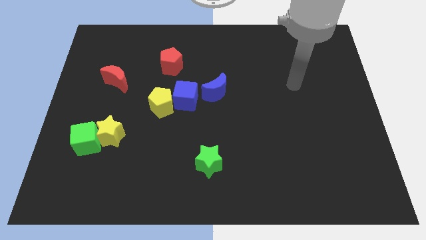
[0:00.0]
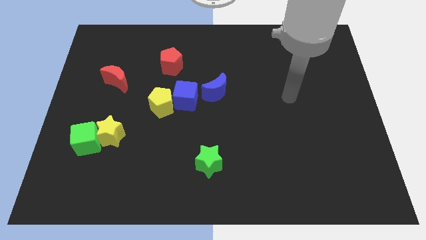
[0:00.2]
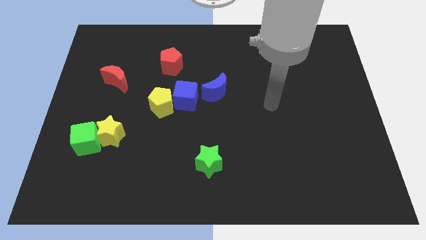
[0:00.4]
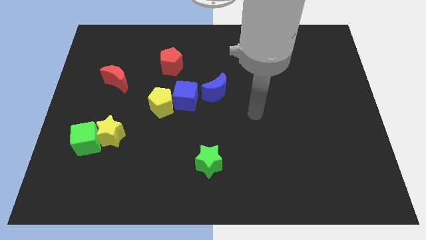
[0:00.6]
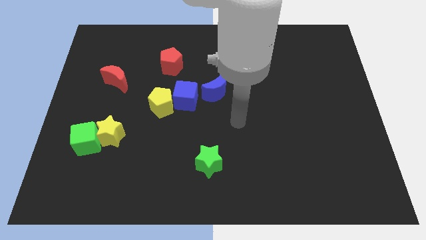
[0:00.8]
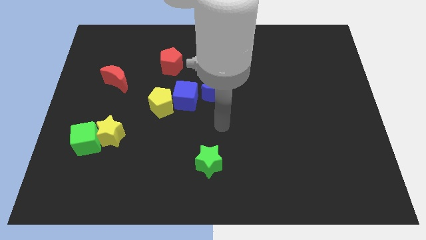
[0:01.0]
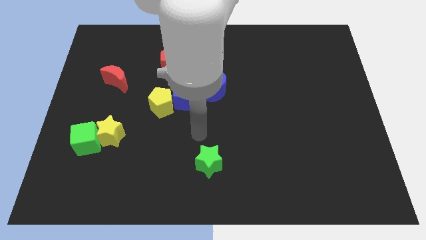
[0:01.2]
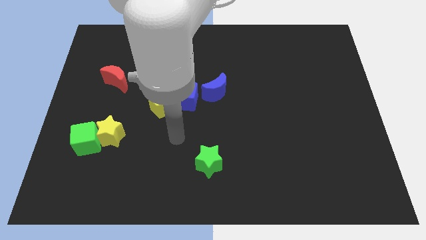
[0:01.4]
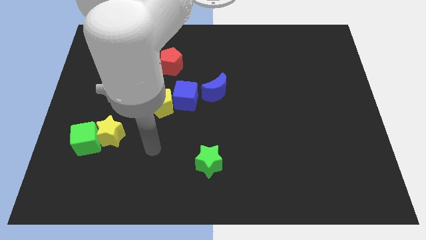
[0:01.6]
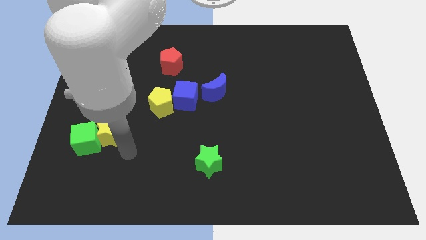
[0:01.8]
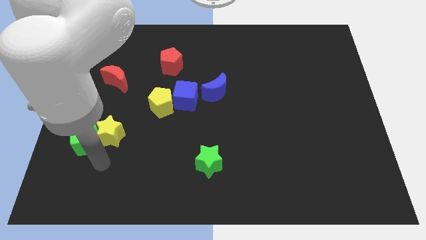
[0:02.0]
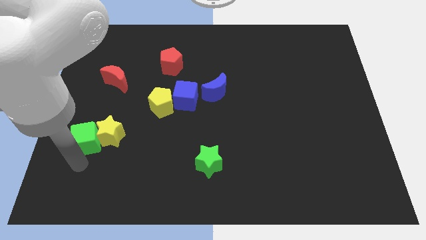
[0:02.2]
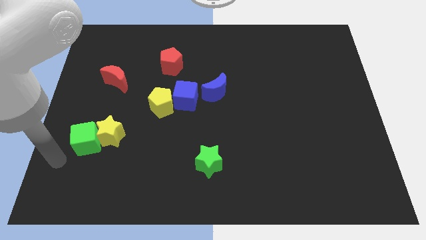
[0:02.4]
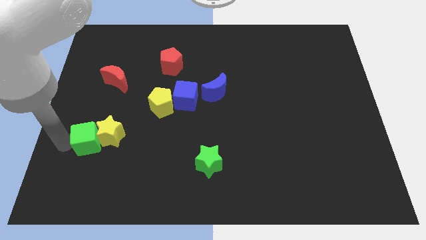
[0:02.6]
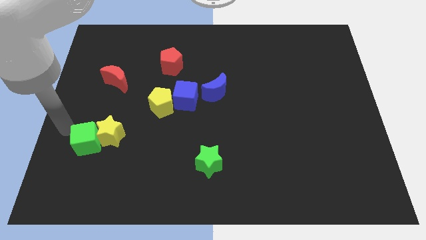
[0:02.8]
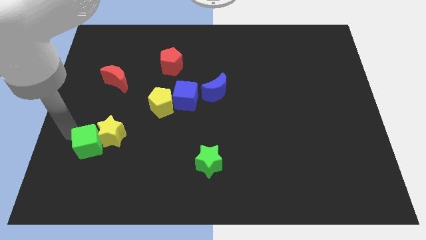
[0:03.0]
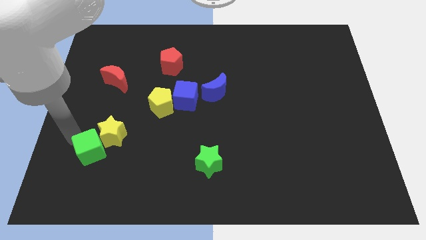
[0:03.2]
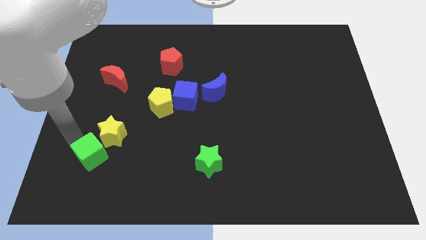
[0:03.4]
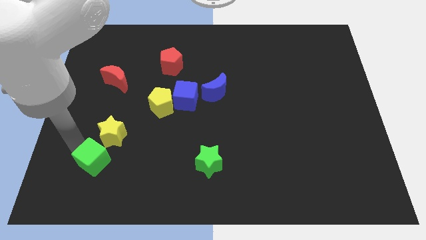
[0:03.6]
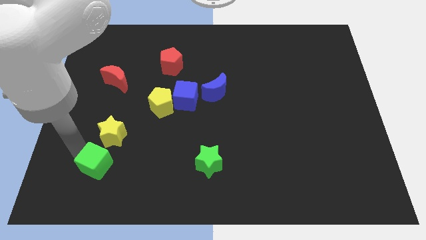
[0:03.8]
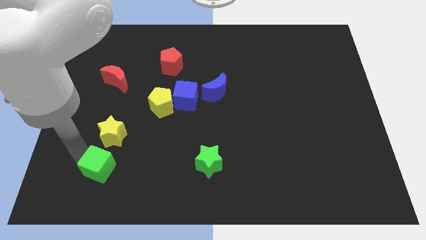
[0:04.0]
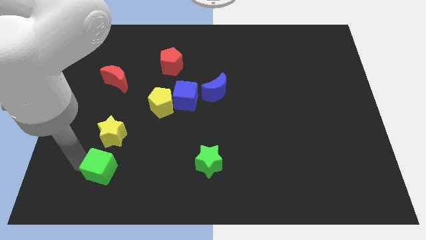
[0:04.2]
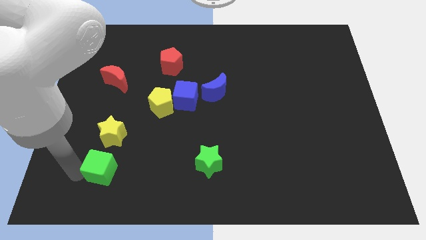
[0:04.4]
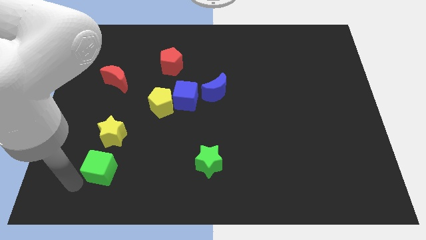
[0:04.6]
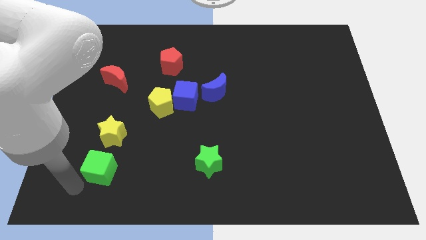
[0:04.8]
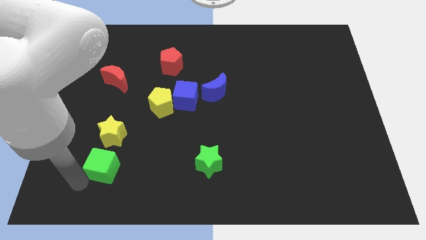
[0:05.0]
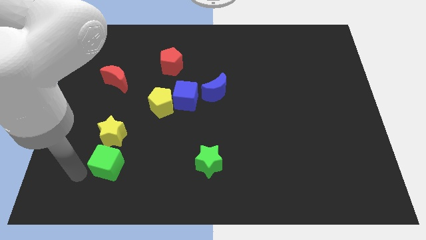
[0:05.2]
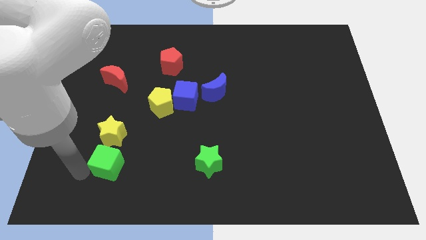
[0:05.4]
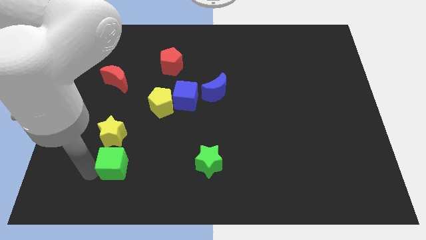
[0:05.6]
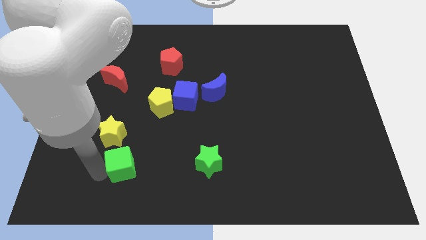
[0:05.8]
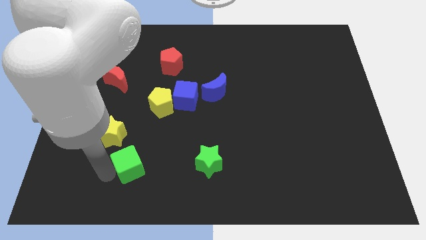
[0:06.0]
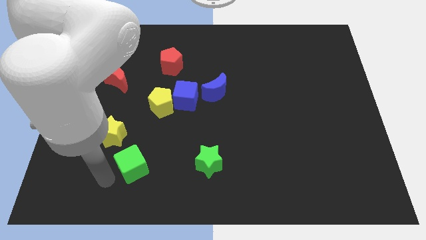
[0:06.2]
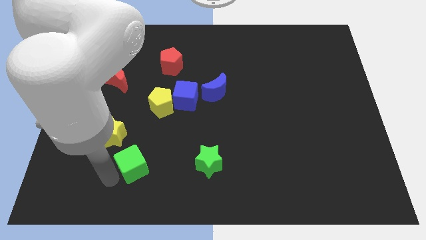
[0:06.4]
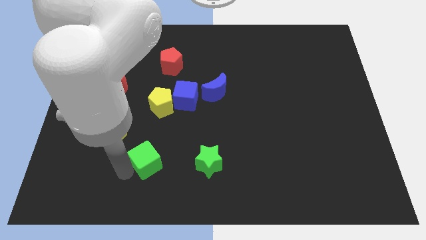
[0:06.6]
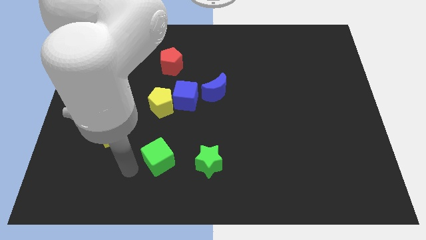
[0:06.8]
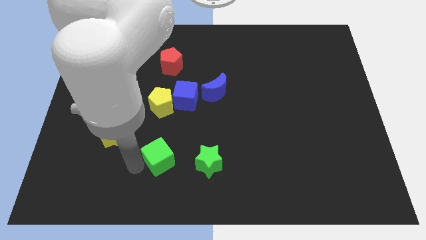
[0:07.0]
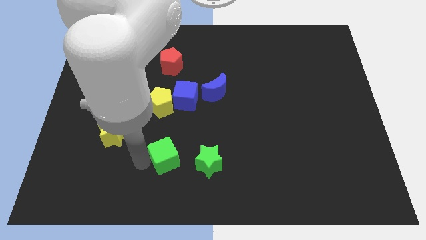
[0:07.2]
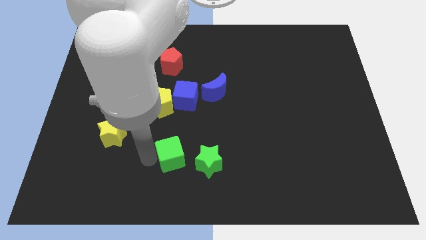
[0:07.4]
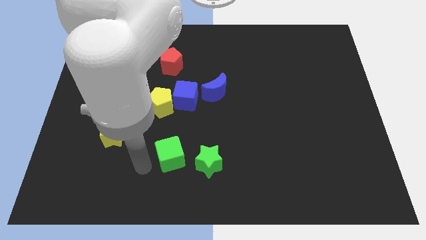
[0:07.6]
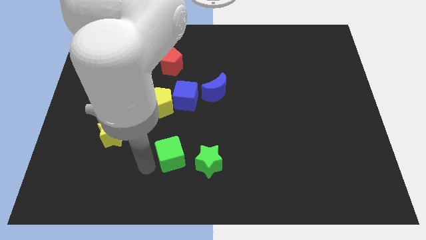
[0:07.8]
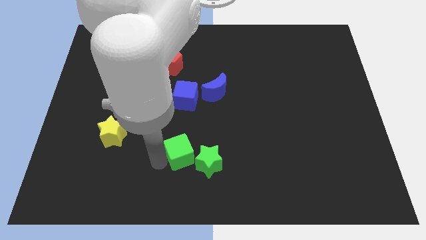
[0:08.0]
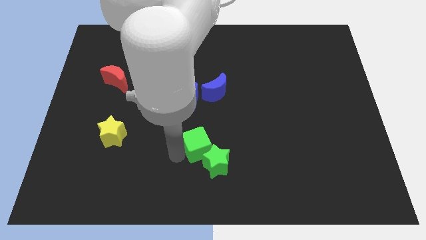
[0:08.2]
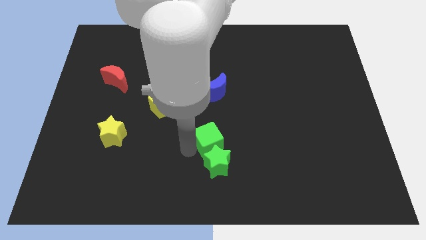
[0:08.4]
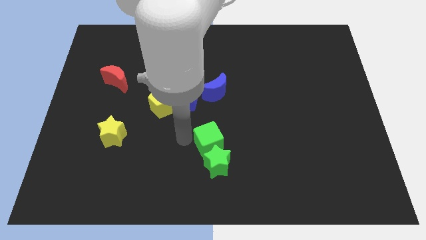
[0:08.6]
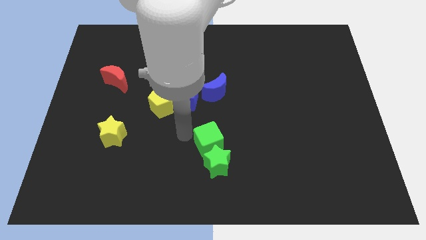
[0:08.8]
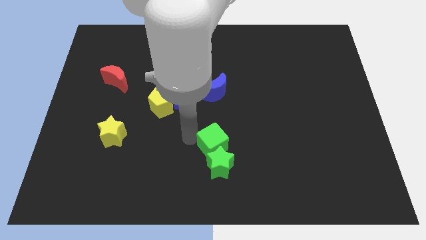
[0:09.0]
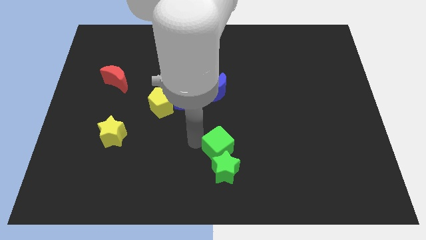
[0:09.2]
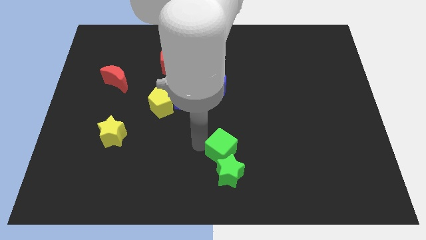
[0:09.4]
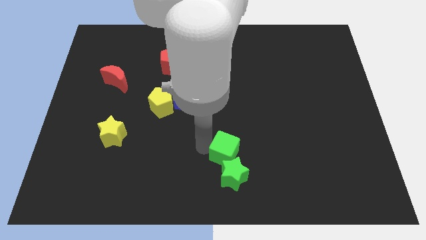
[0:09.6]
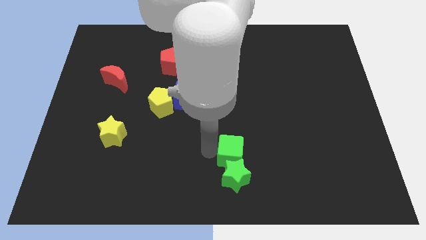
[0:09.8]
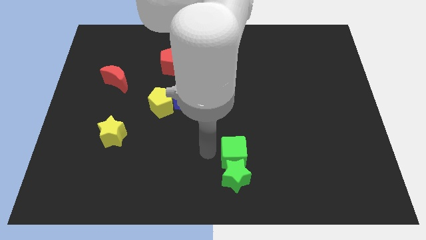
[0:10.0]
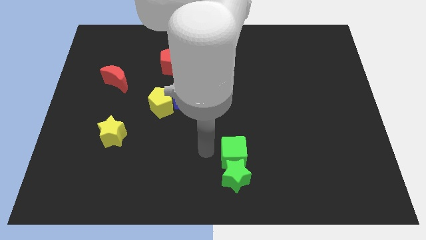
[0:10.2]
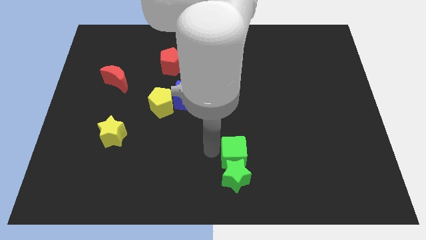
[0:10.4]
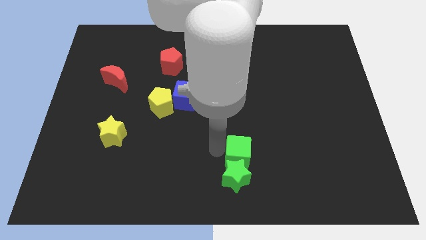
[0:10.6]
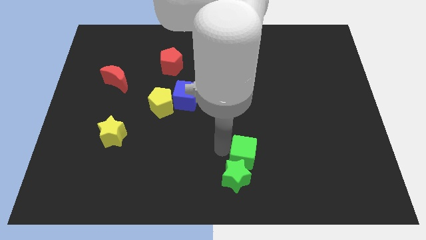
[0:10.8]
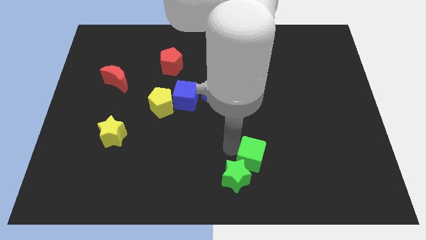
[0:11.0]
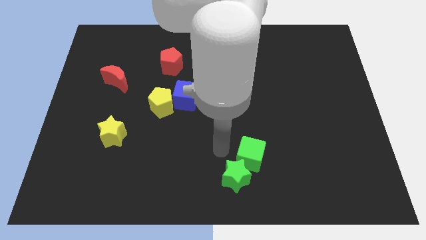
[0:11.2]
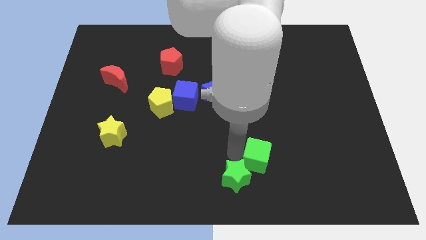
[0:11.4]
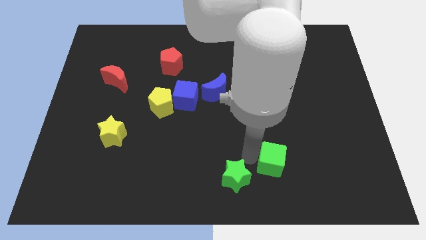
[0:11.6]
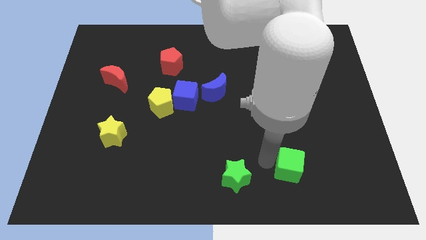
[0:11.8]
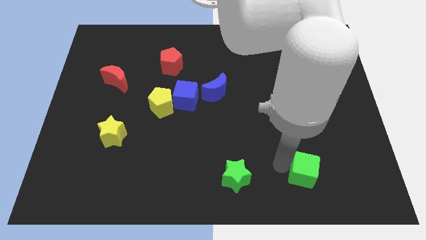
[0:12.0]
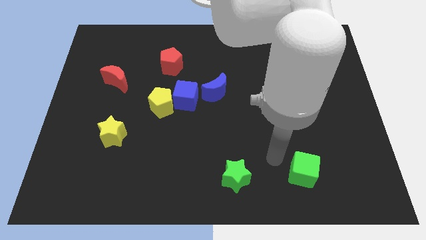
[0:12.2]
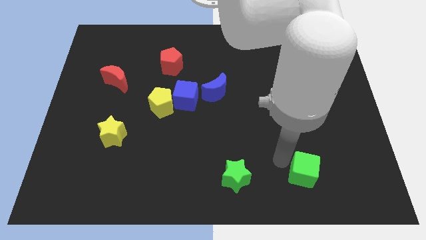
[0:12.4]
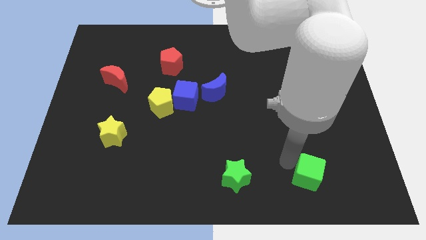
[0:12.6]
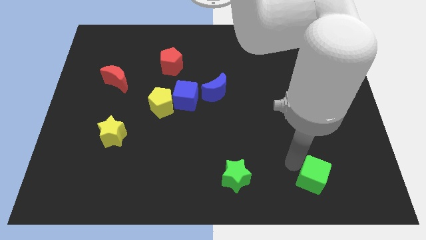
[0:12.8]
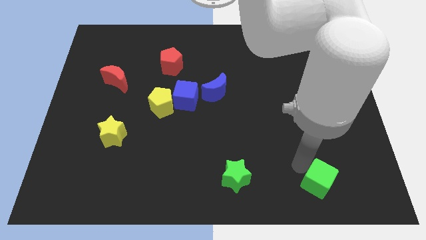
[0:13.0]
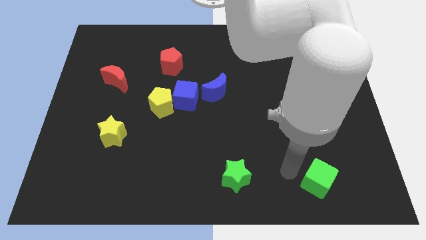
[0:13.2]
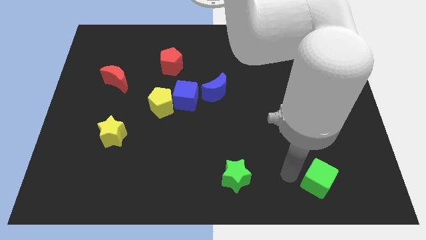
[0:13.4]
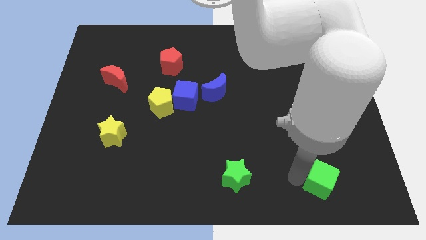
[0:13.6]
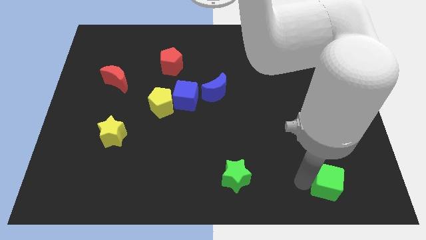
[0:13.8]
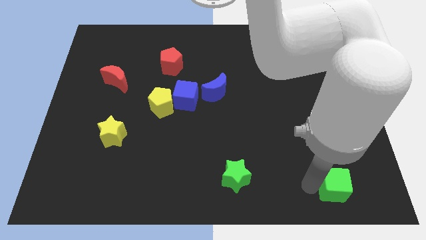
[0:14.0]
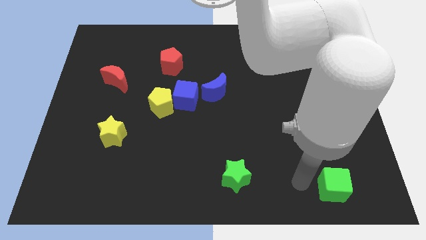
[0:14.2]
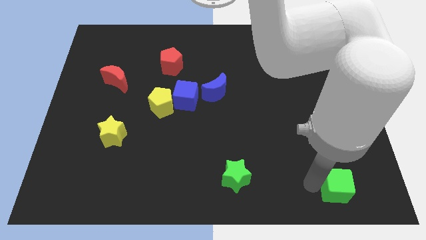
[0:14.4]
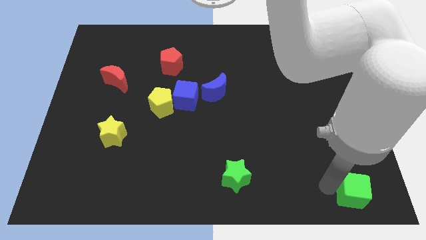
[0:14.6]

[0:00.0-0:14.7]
put the green cube to the bottom right
